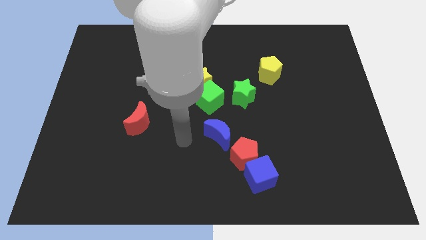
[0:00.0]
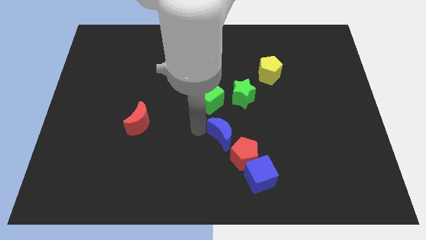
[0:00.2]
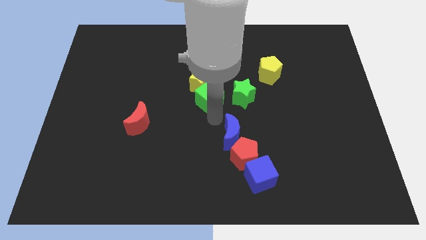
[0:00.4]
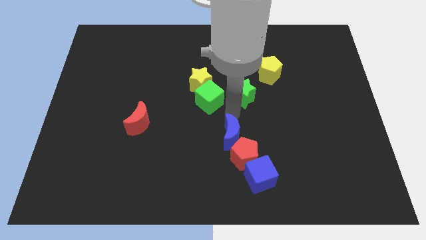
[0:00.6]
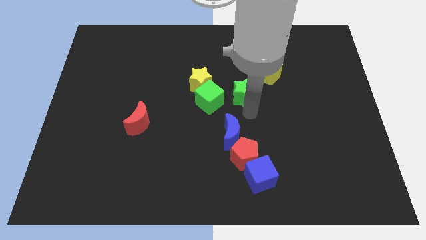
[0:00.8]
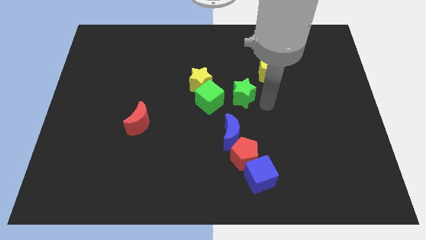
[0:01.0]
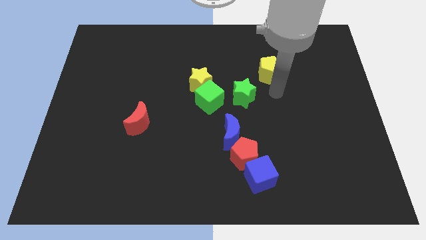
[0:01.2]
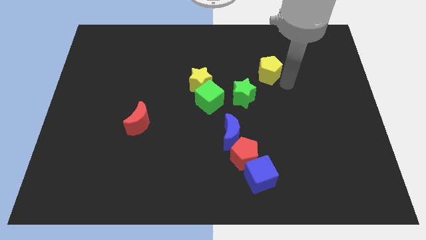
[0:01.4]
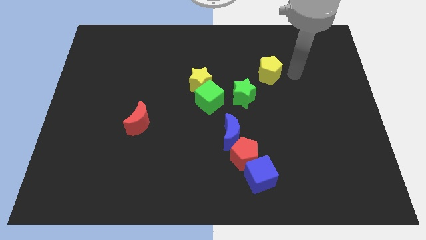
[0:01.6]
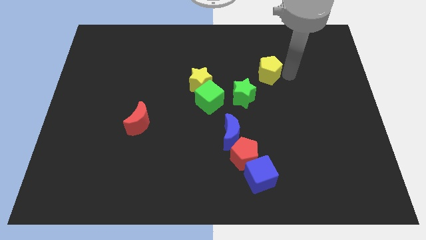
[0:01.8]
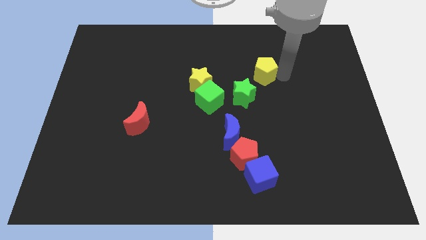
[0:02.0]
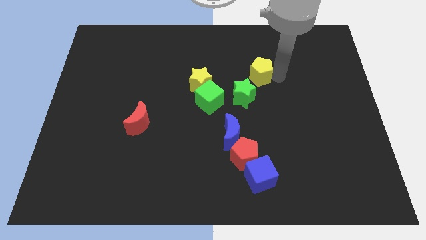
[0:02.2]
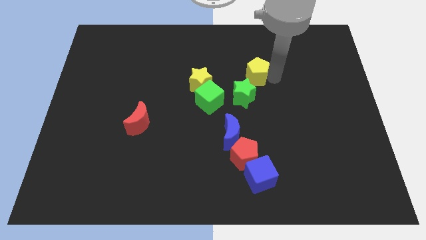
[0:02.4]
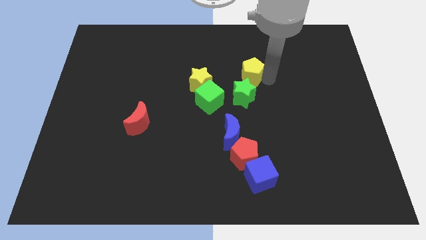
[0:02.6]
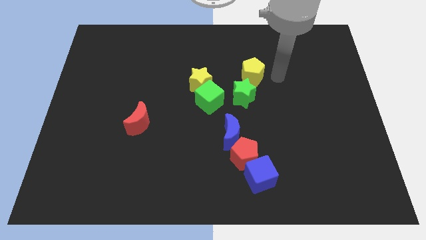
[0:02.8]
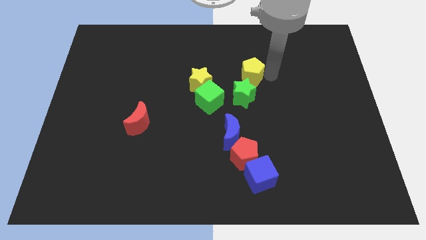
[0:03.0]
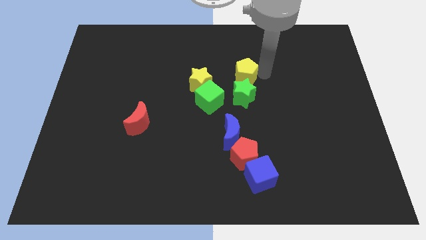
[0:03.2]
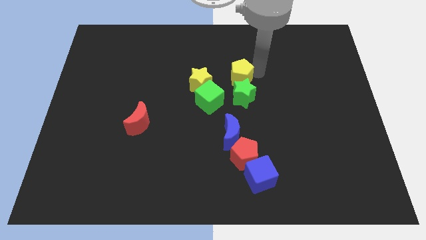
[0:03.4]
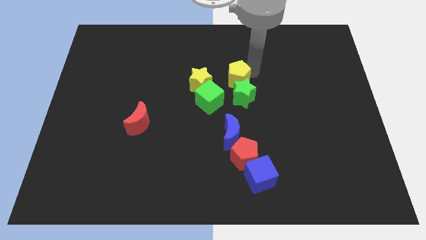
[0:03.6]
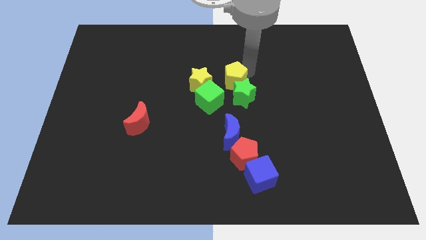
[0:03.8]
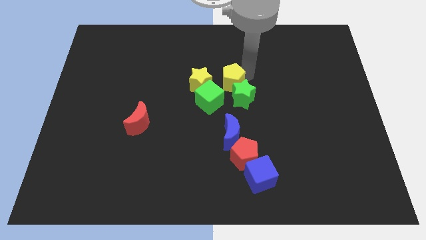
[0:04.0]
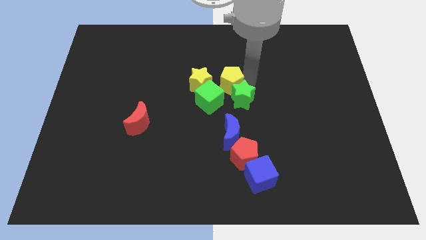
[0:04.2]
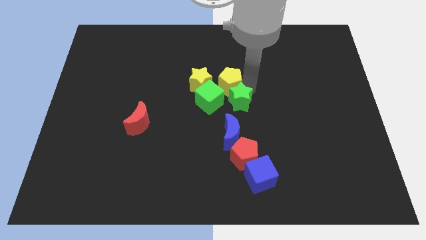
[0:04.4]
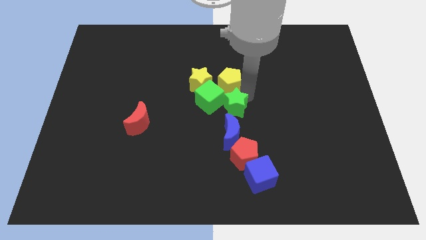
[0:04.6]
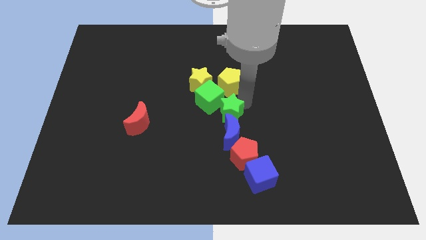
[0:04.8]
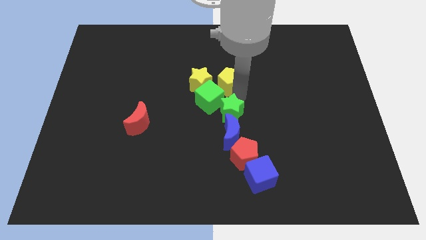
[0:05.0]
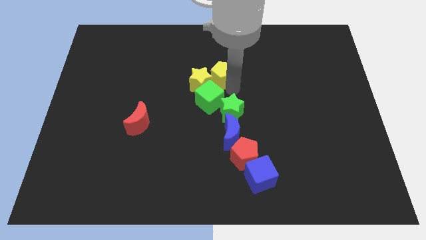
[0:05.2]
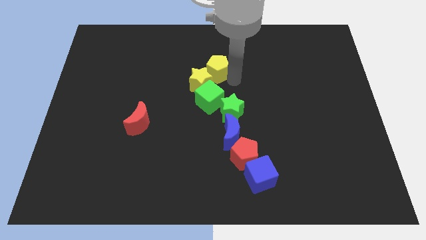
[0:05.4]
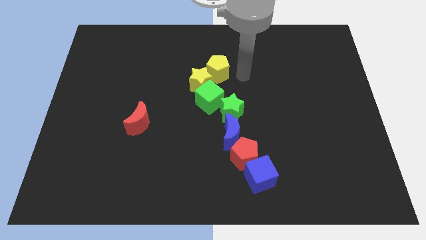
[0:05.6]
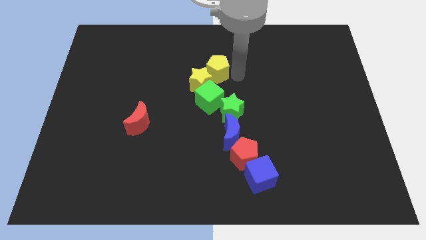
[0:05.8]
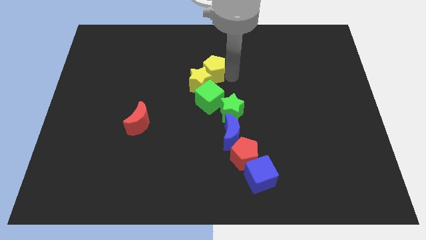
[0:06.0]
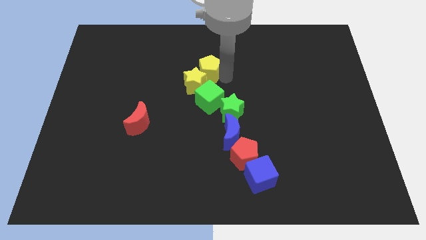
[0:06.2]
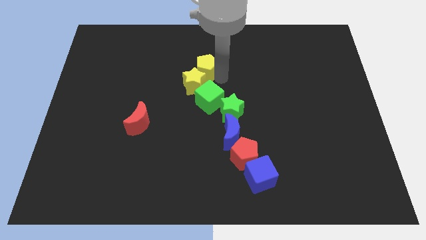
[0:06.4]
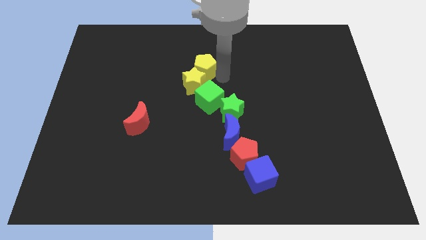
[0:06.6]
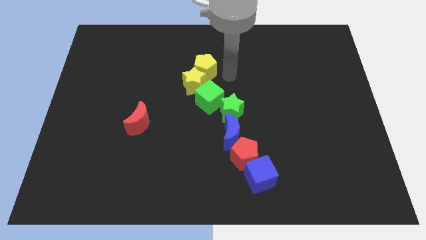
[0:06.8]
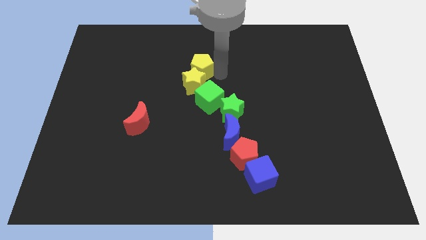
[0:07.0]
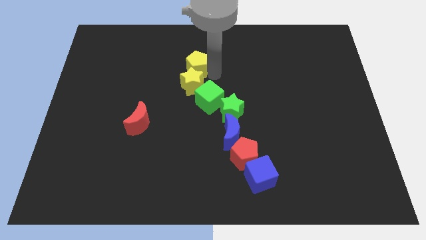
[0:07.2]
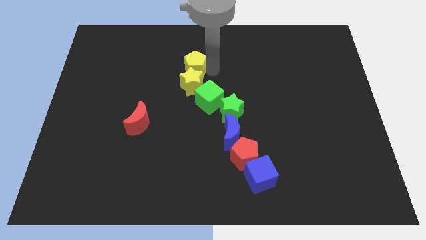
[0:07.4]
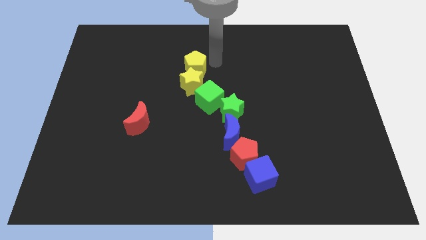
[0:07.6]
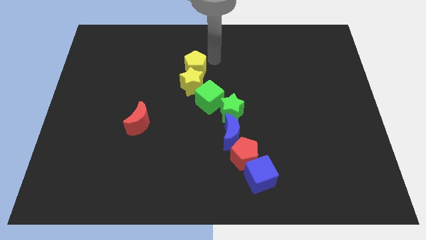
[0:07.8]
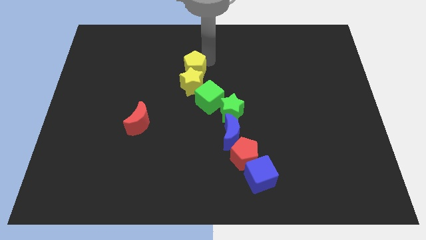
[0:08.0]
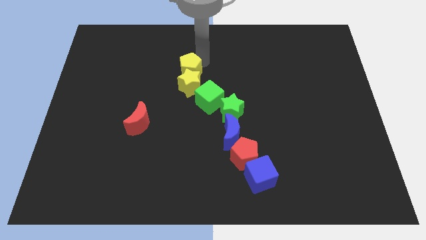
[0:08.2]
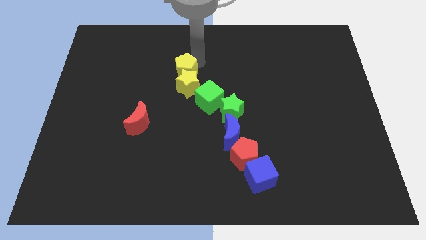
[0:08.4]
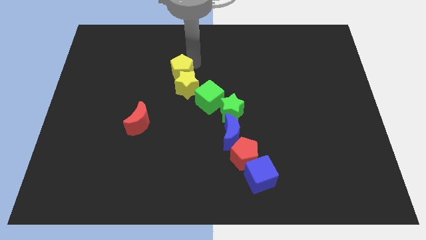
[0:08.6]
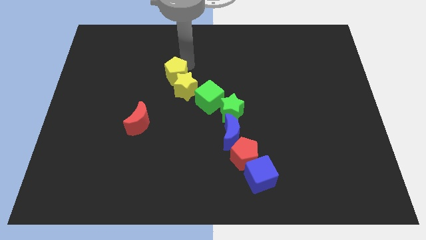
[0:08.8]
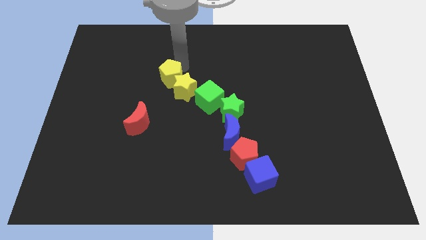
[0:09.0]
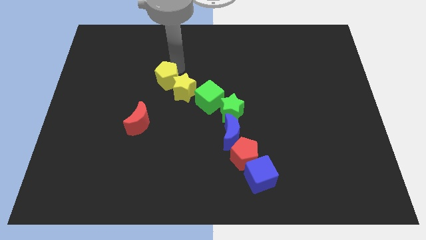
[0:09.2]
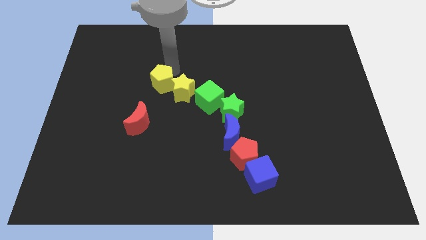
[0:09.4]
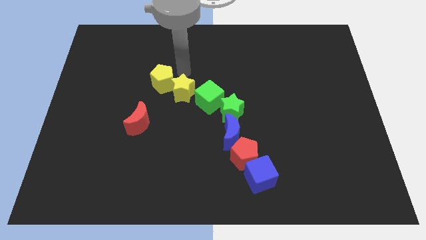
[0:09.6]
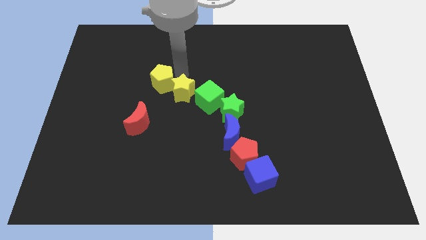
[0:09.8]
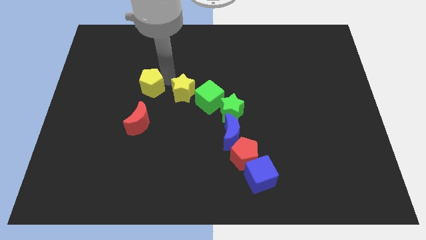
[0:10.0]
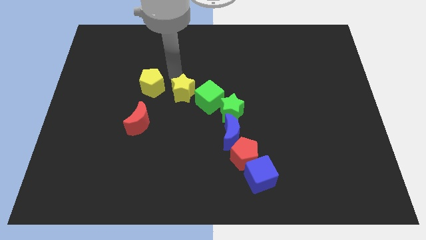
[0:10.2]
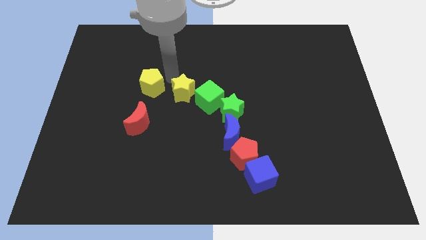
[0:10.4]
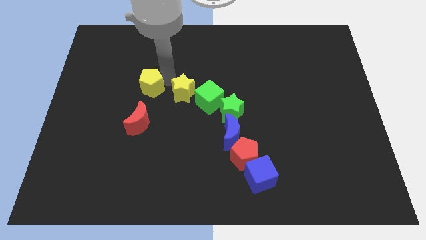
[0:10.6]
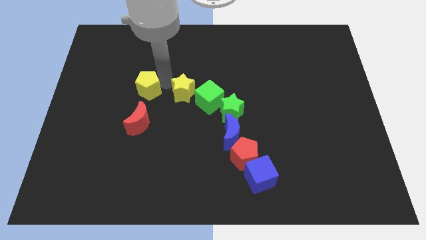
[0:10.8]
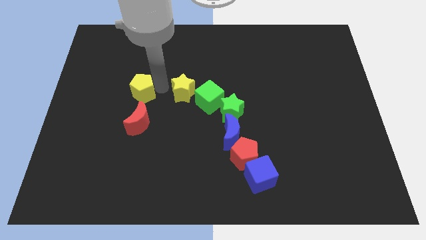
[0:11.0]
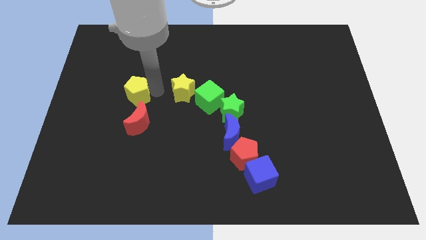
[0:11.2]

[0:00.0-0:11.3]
slide the yellow pentagon to the top left side of the red moon

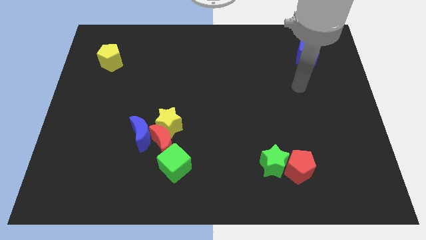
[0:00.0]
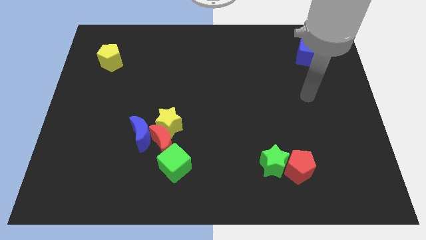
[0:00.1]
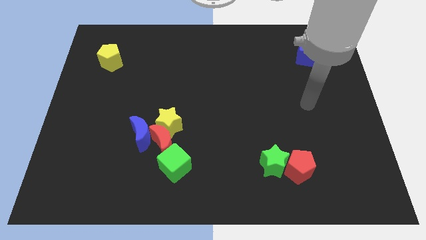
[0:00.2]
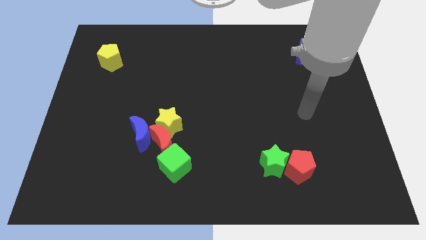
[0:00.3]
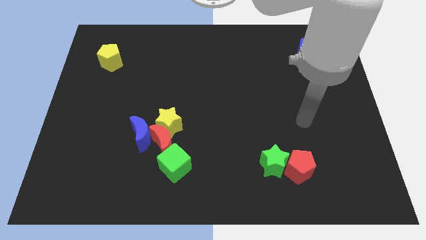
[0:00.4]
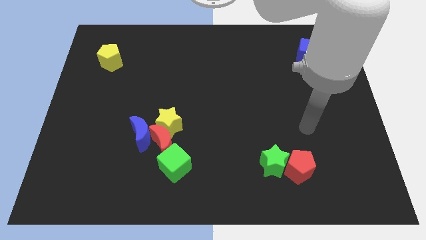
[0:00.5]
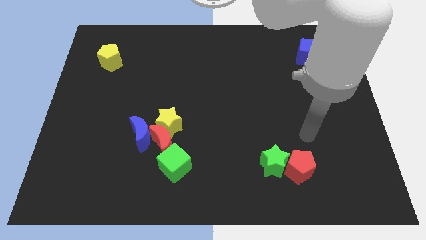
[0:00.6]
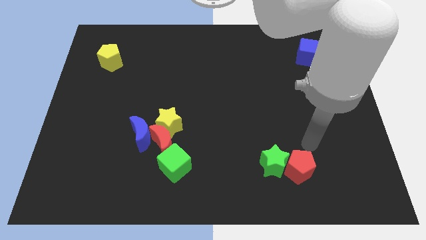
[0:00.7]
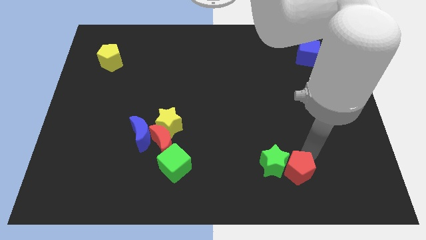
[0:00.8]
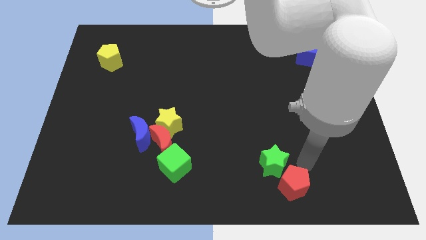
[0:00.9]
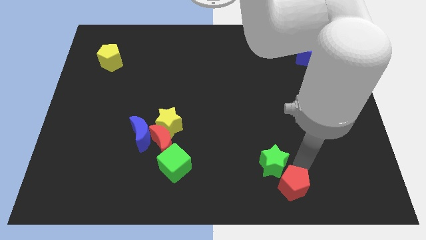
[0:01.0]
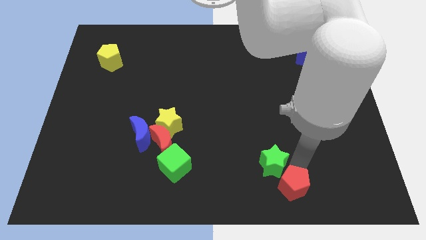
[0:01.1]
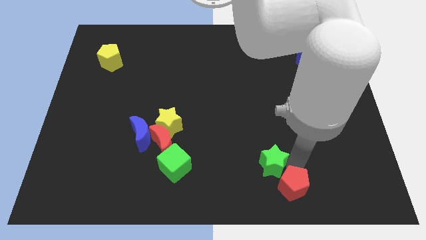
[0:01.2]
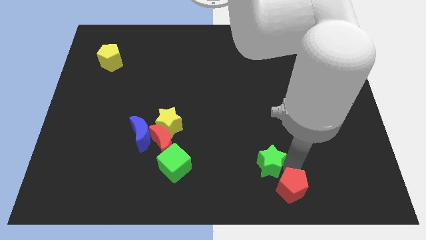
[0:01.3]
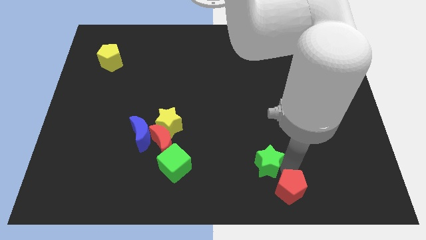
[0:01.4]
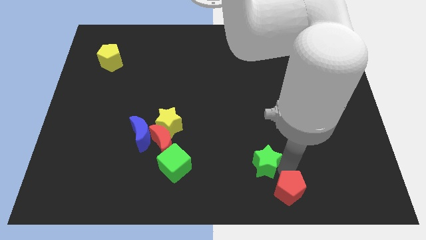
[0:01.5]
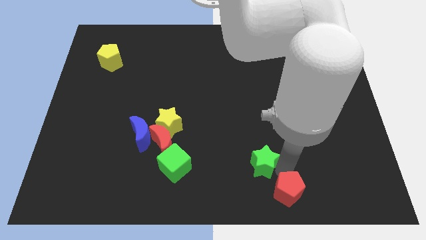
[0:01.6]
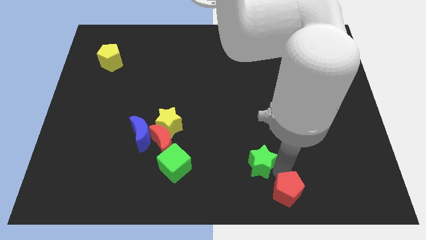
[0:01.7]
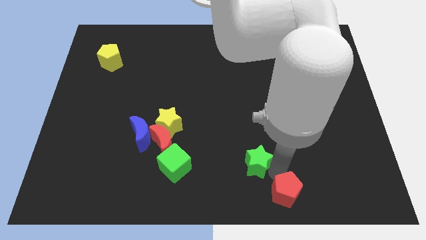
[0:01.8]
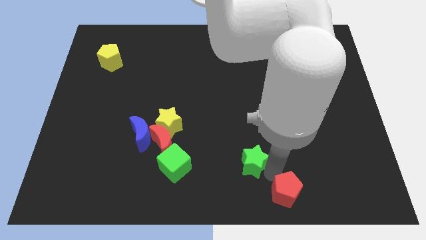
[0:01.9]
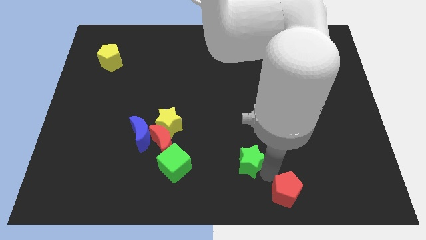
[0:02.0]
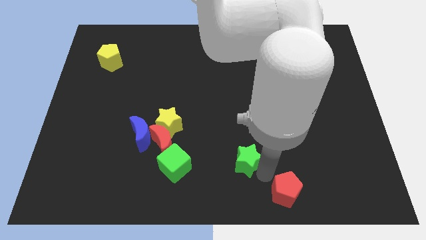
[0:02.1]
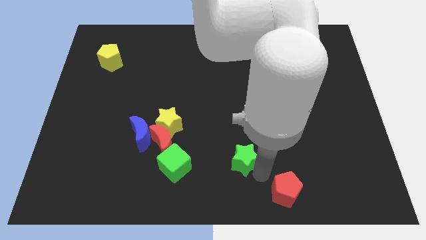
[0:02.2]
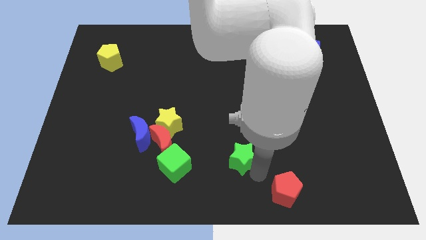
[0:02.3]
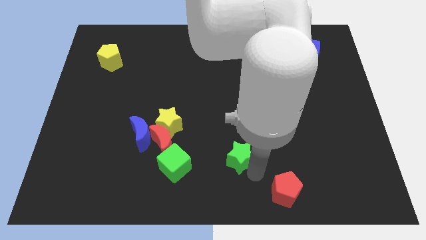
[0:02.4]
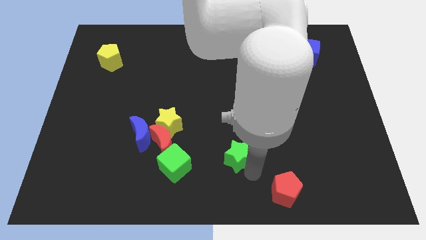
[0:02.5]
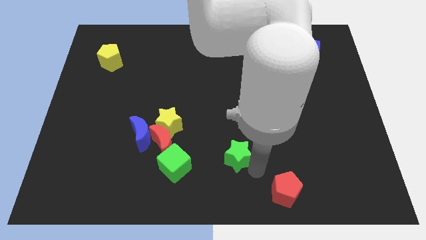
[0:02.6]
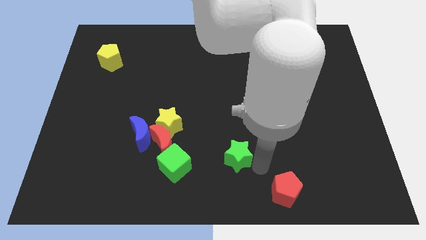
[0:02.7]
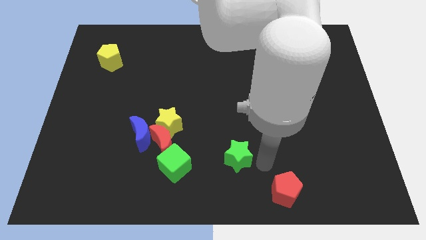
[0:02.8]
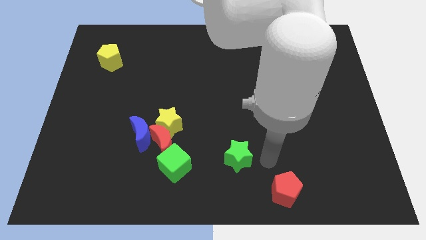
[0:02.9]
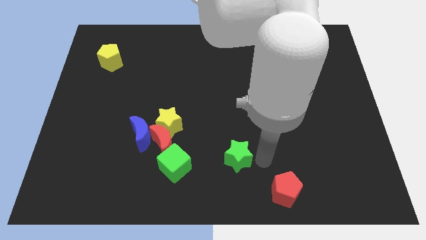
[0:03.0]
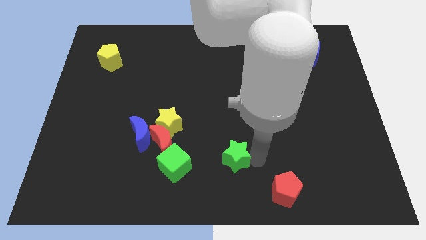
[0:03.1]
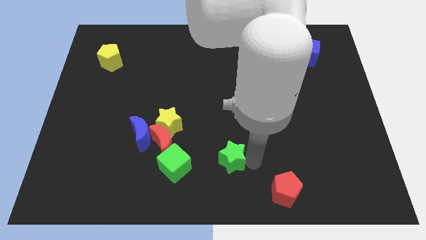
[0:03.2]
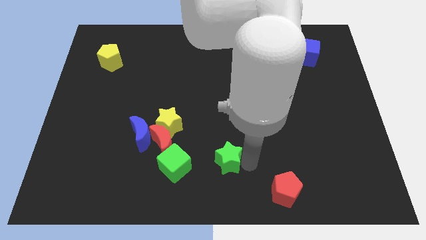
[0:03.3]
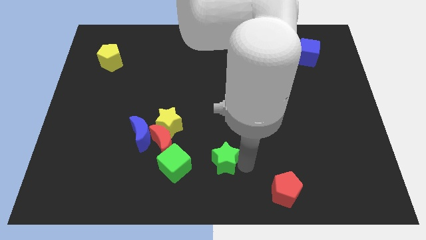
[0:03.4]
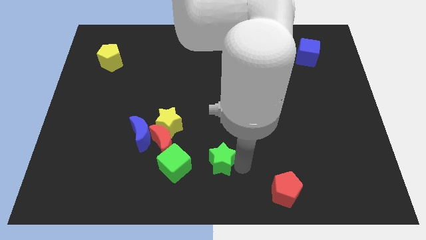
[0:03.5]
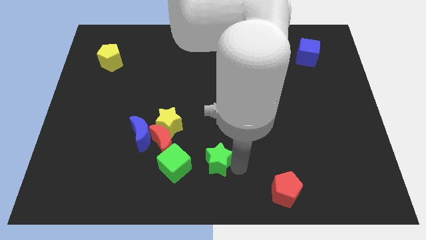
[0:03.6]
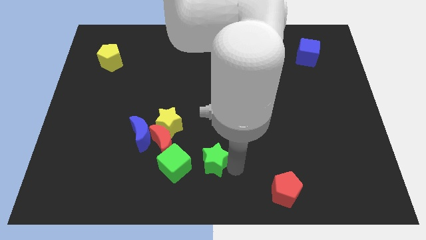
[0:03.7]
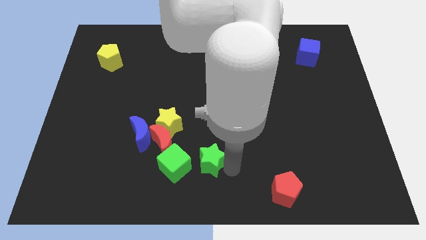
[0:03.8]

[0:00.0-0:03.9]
move the green star to the top right of the green cube
